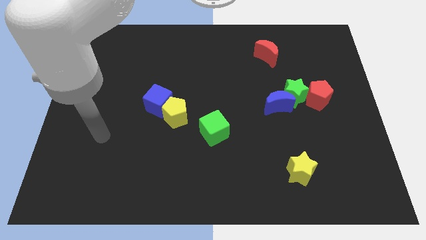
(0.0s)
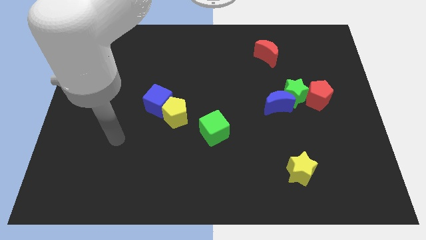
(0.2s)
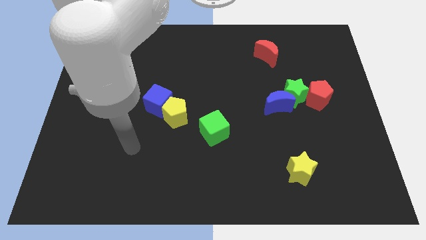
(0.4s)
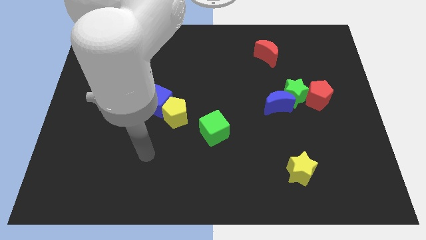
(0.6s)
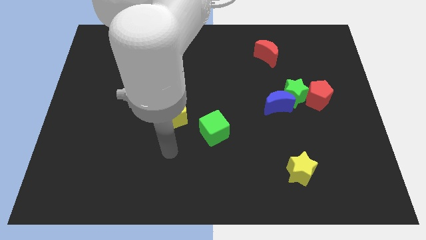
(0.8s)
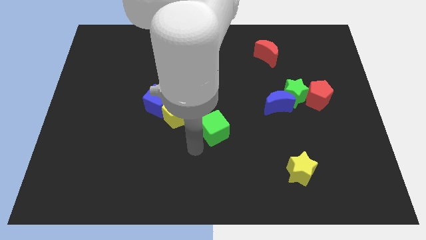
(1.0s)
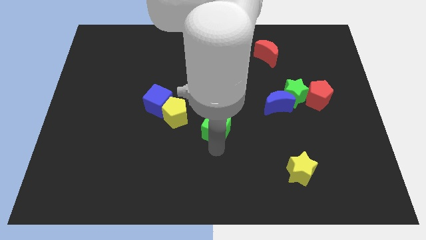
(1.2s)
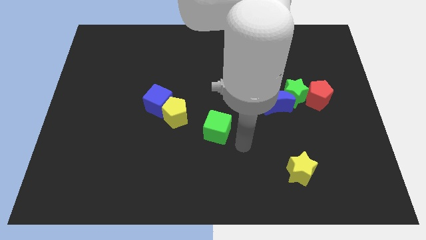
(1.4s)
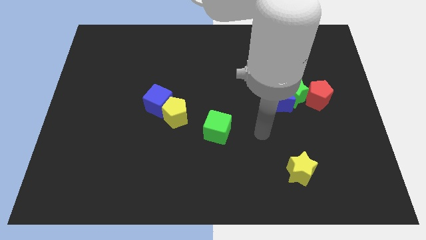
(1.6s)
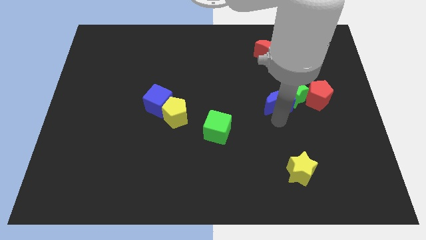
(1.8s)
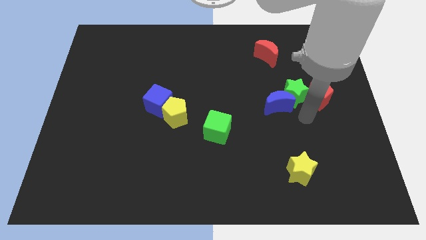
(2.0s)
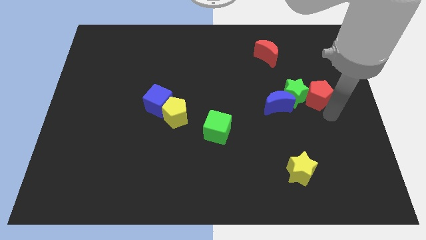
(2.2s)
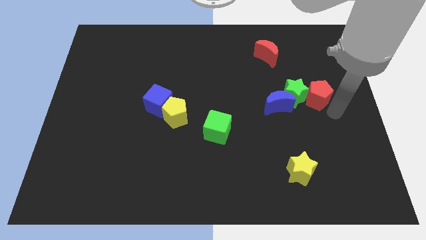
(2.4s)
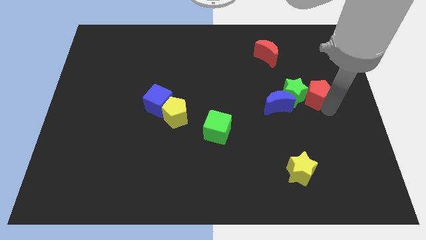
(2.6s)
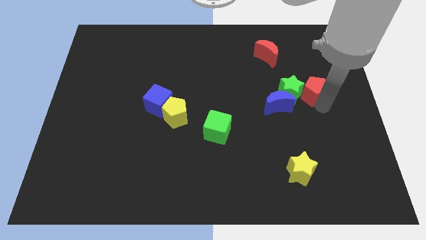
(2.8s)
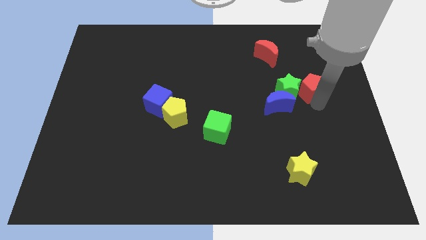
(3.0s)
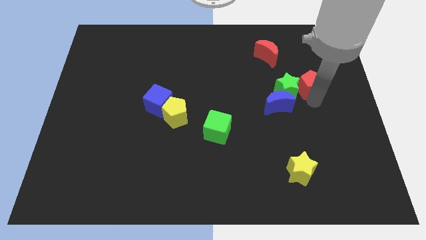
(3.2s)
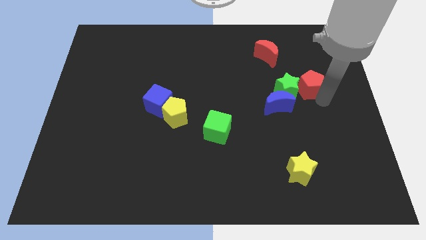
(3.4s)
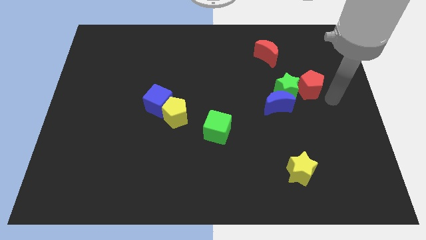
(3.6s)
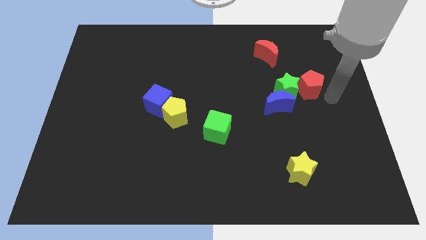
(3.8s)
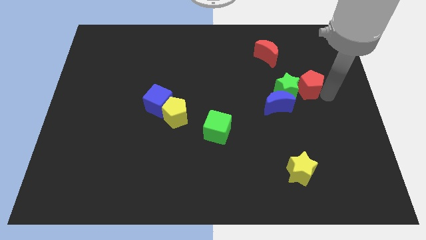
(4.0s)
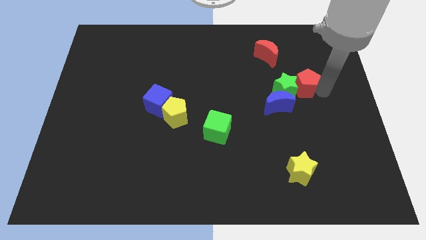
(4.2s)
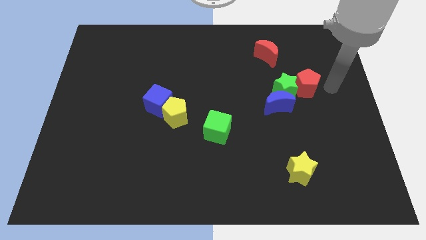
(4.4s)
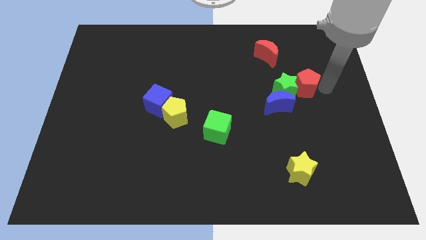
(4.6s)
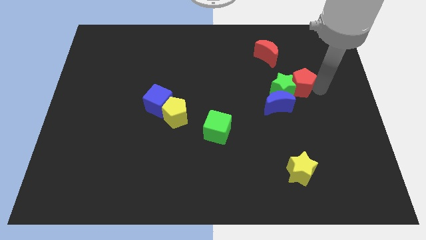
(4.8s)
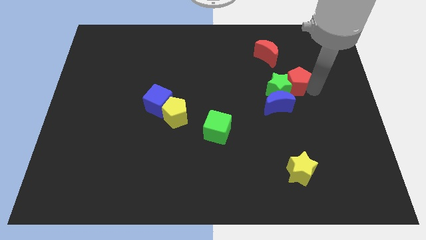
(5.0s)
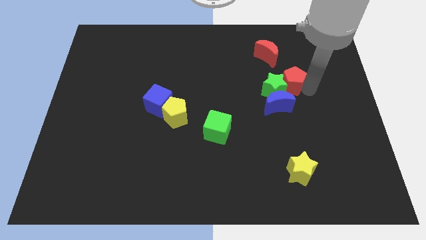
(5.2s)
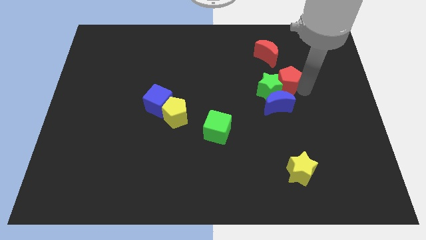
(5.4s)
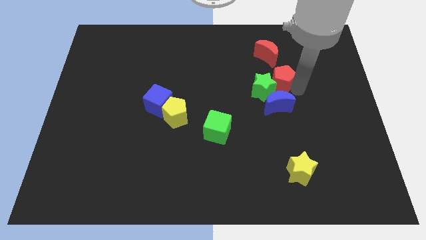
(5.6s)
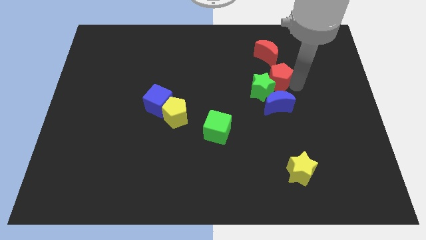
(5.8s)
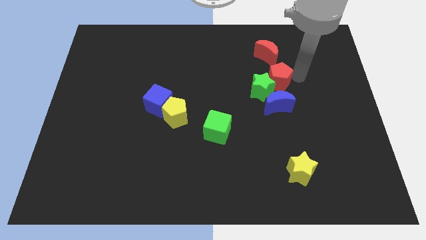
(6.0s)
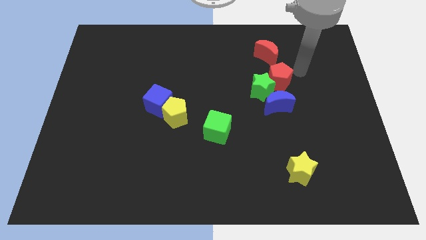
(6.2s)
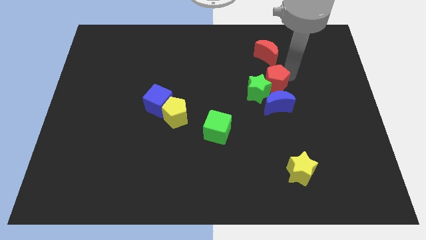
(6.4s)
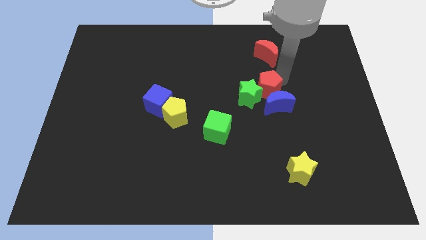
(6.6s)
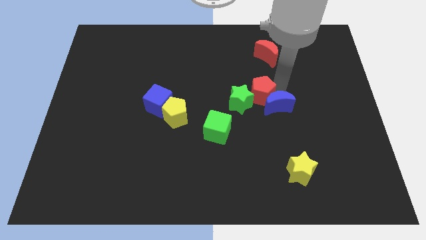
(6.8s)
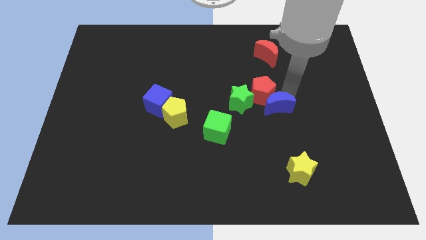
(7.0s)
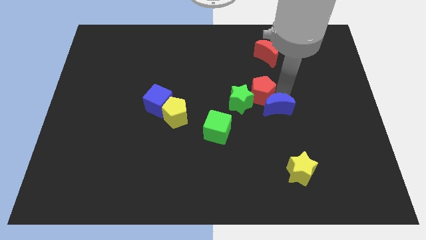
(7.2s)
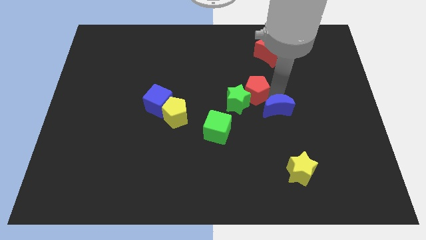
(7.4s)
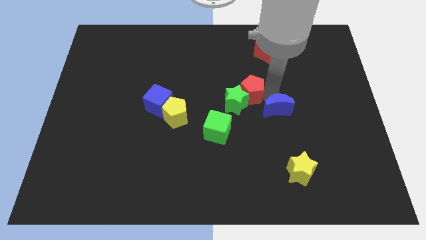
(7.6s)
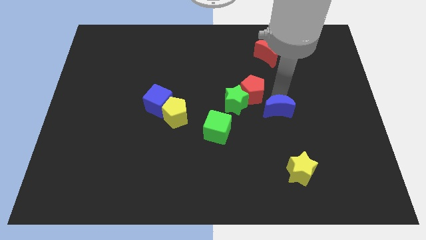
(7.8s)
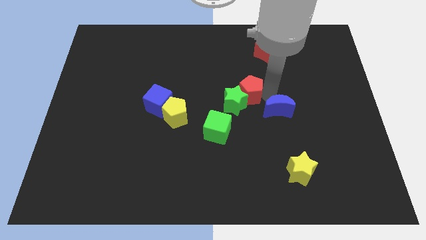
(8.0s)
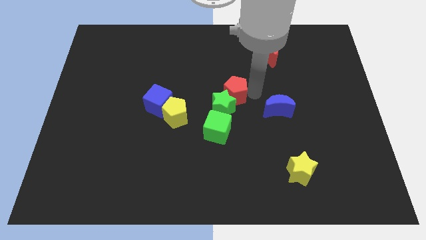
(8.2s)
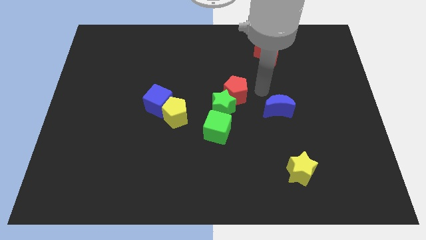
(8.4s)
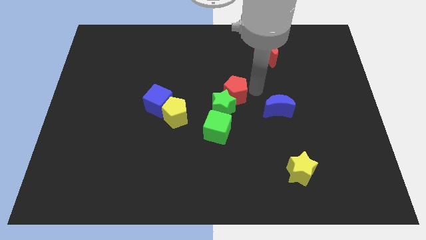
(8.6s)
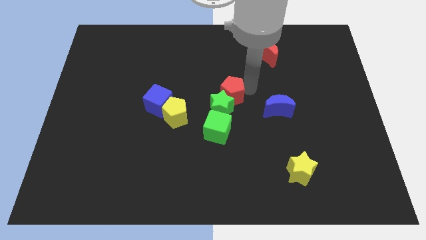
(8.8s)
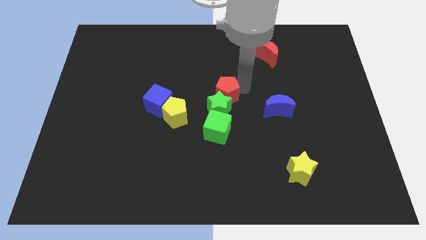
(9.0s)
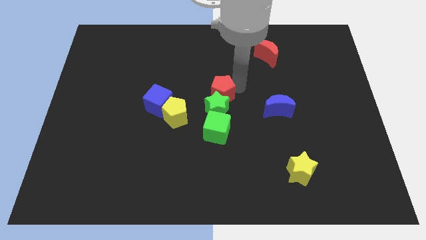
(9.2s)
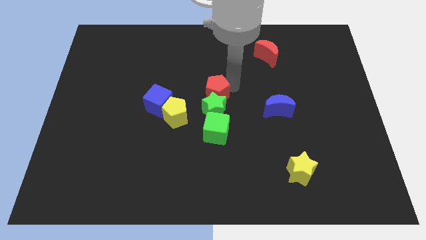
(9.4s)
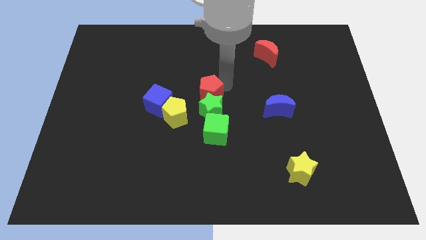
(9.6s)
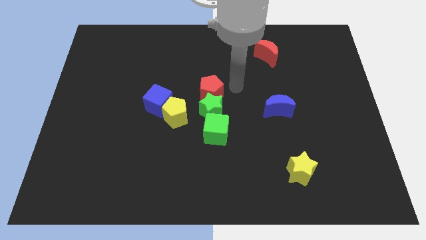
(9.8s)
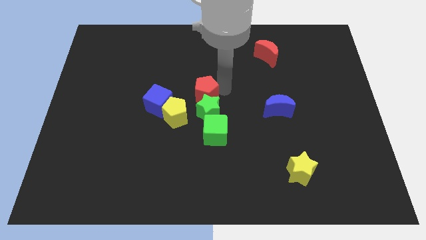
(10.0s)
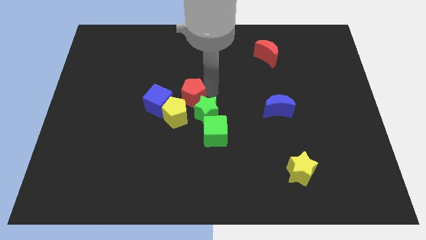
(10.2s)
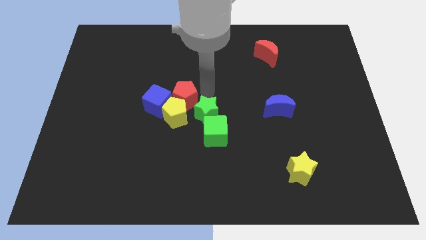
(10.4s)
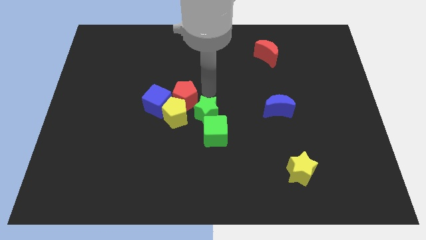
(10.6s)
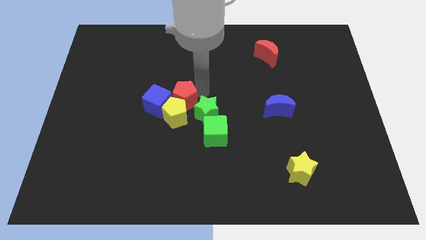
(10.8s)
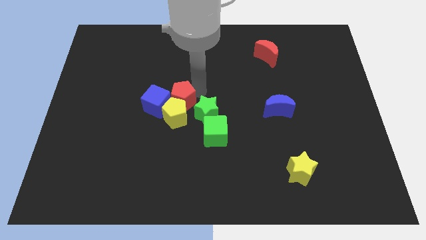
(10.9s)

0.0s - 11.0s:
slide the red pentagon next to the blue cube

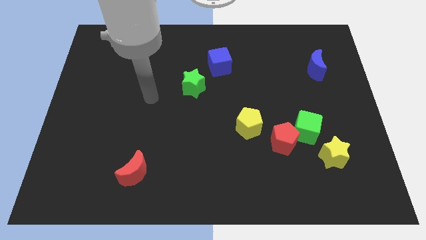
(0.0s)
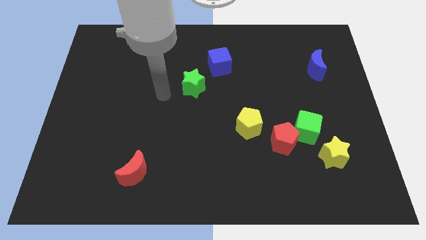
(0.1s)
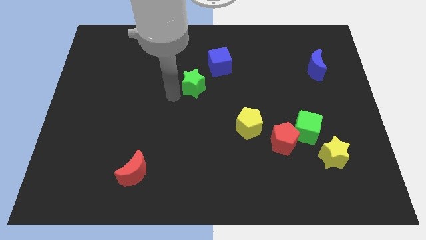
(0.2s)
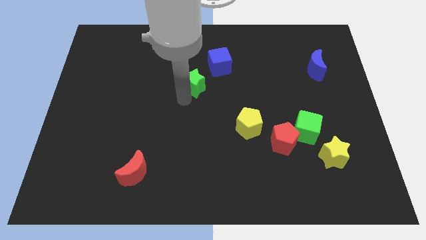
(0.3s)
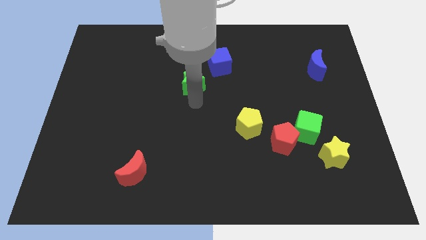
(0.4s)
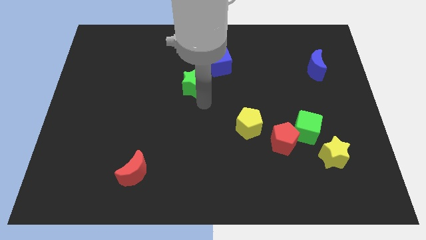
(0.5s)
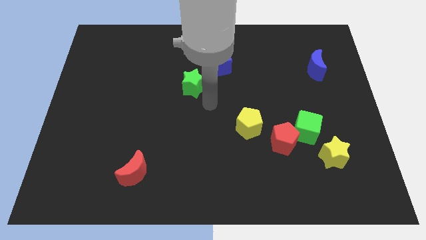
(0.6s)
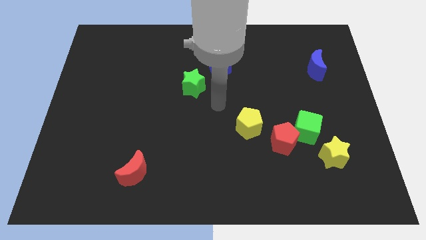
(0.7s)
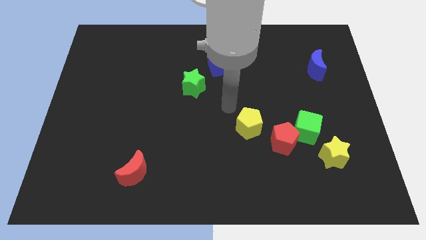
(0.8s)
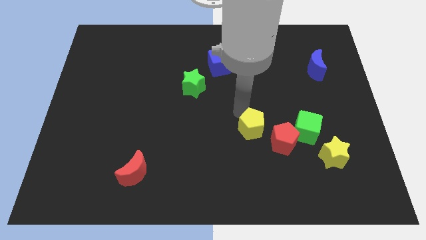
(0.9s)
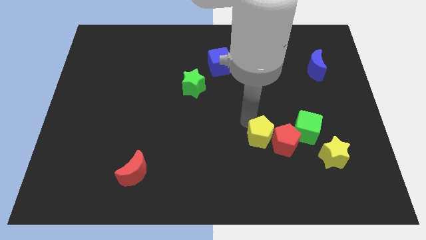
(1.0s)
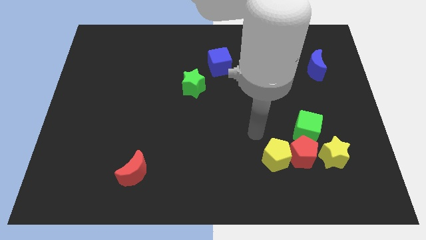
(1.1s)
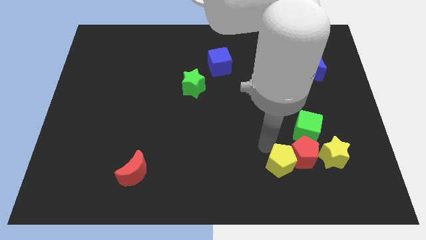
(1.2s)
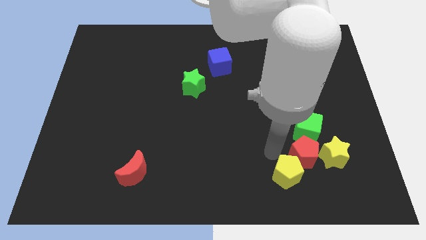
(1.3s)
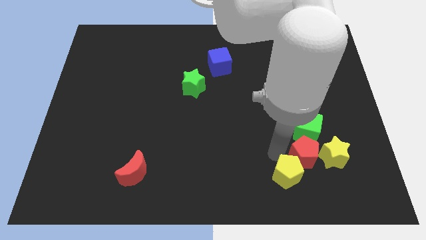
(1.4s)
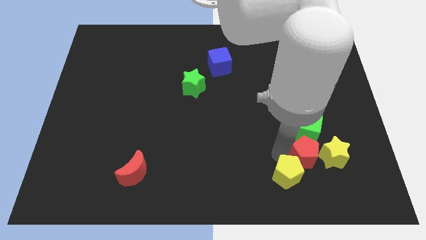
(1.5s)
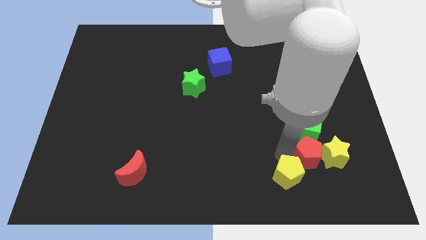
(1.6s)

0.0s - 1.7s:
slide the red pentagon next to the yellow star
